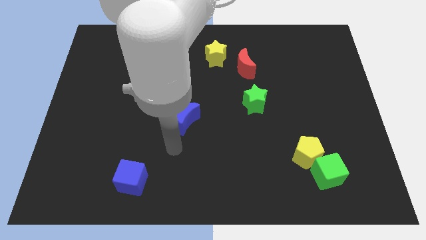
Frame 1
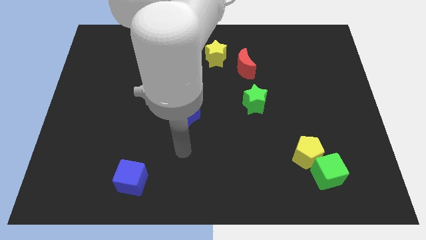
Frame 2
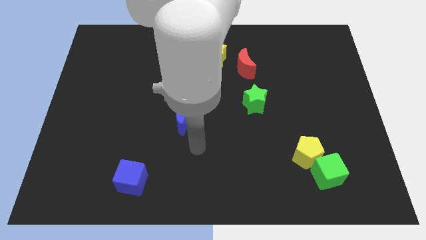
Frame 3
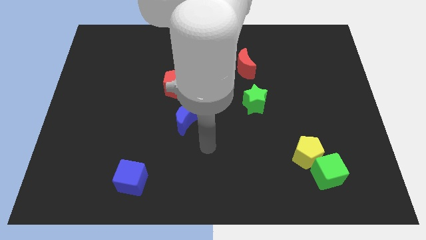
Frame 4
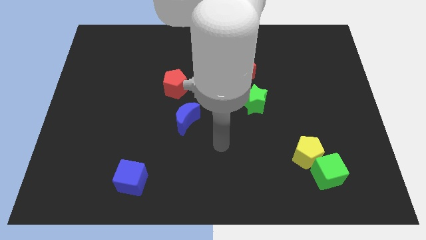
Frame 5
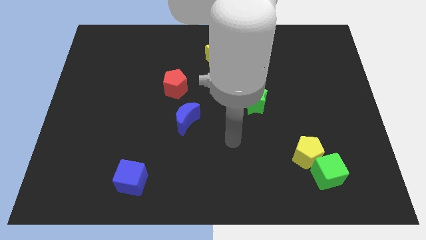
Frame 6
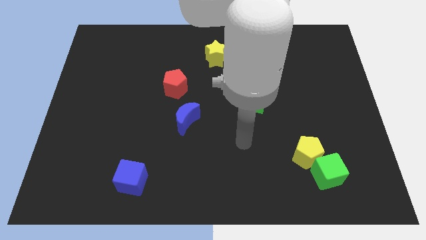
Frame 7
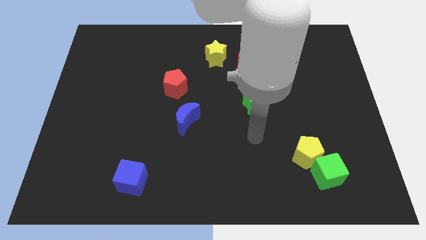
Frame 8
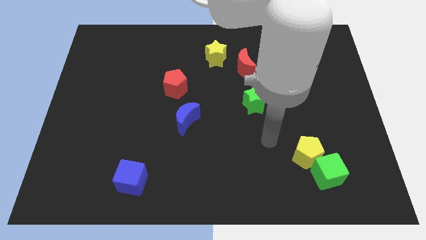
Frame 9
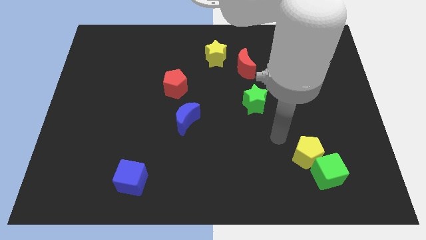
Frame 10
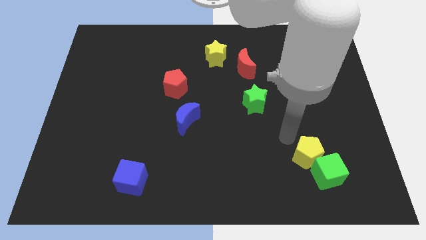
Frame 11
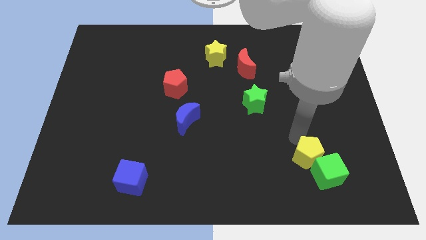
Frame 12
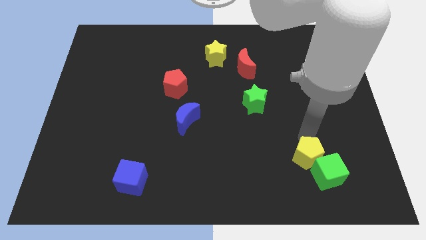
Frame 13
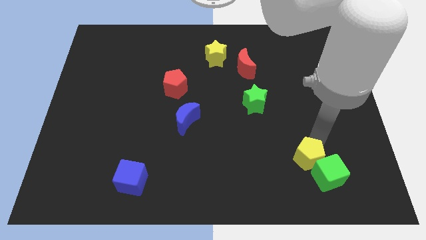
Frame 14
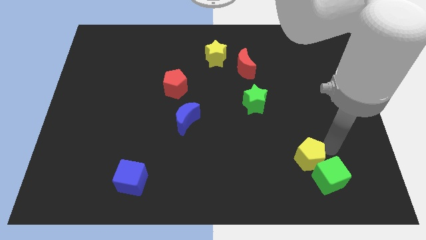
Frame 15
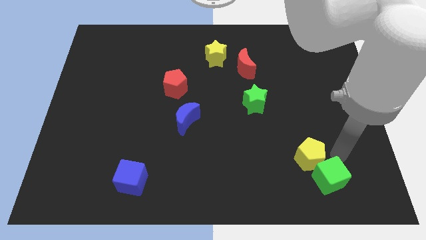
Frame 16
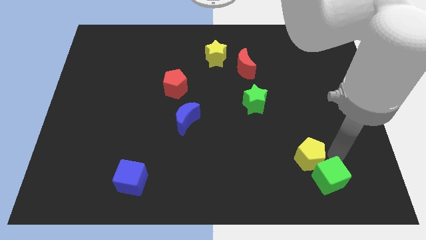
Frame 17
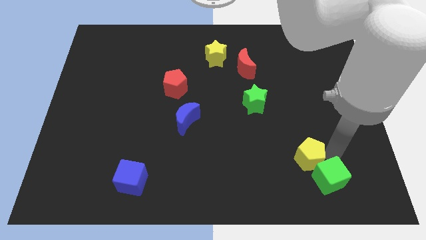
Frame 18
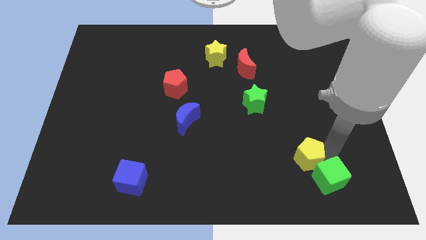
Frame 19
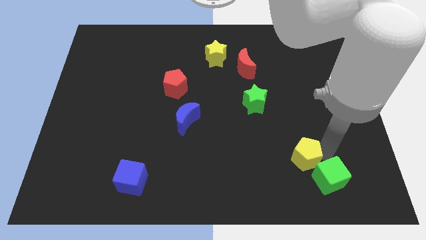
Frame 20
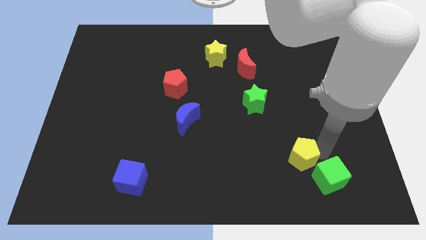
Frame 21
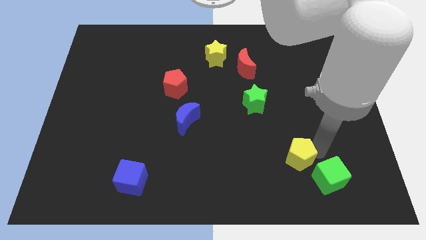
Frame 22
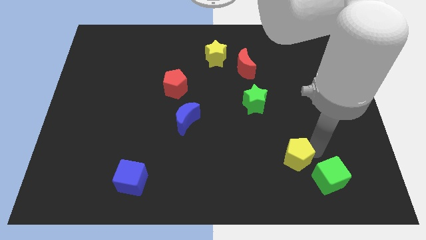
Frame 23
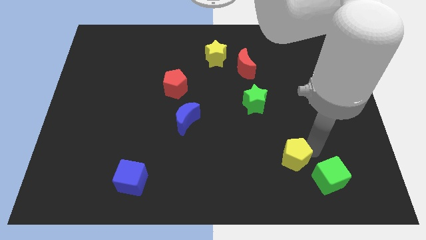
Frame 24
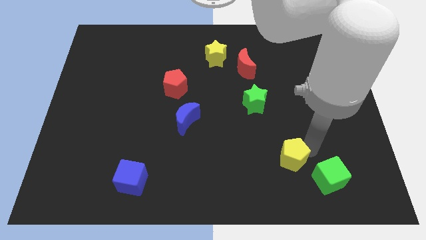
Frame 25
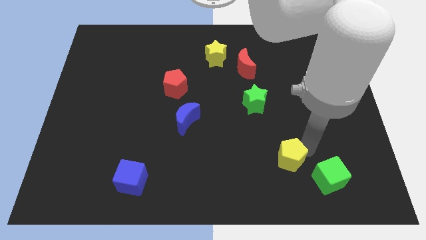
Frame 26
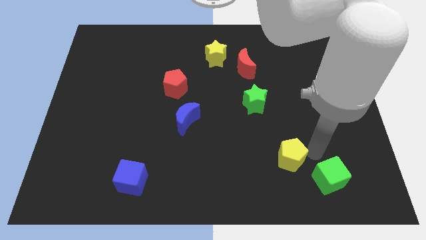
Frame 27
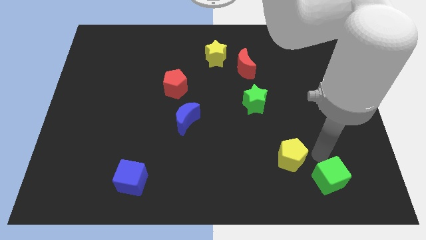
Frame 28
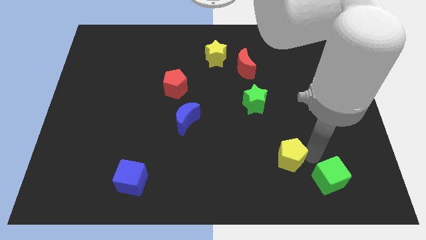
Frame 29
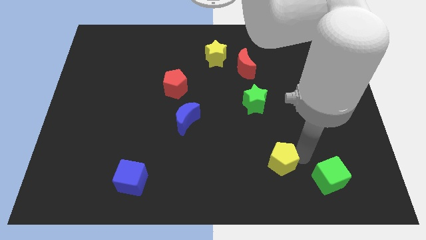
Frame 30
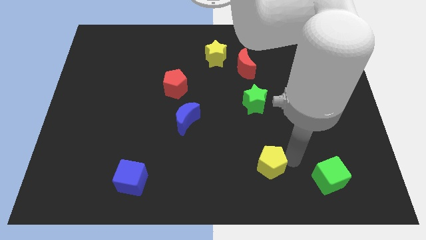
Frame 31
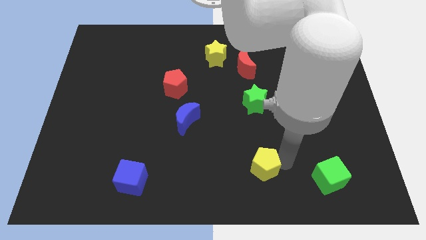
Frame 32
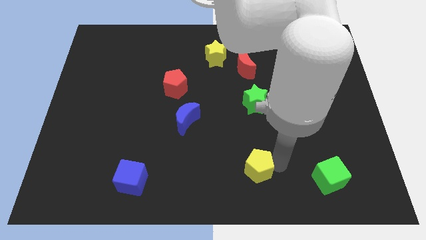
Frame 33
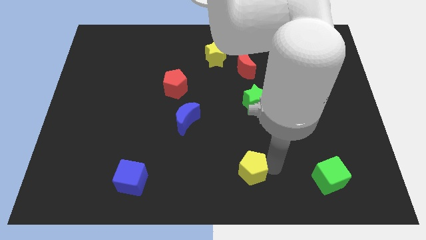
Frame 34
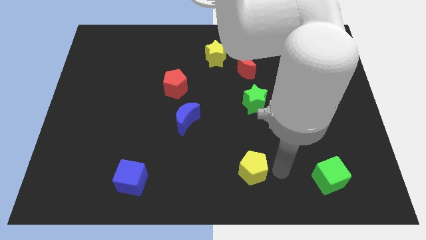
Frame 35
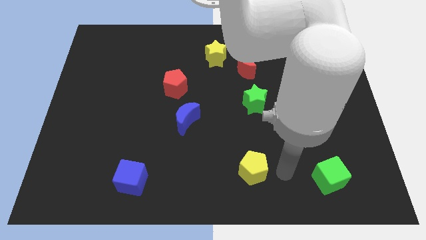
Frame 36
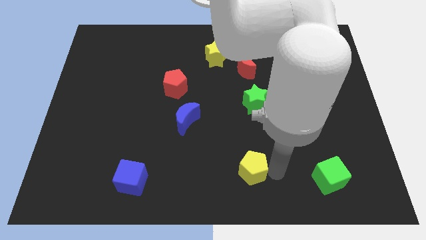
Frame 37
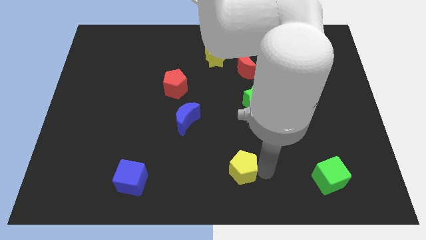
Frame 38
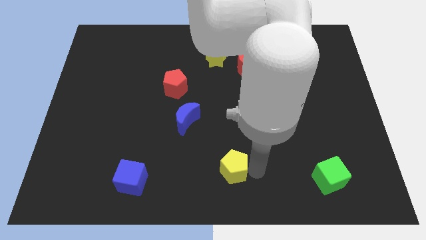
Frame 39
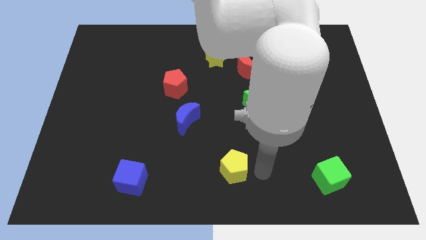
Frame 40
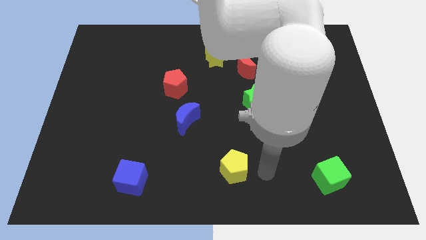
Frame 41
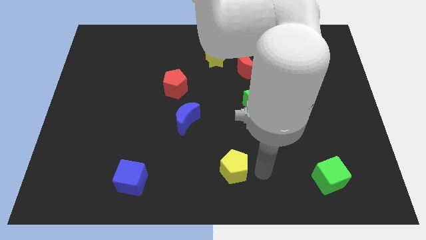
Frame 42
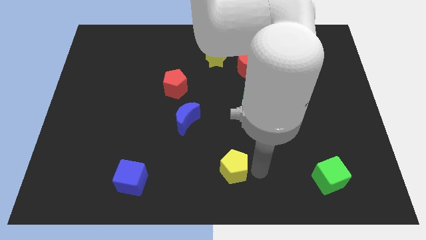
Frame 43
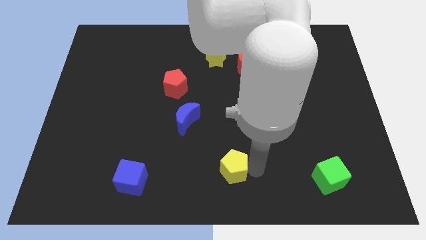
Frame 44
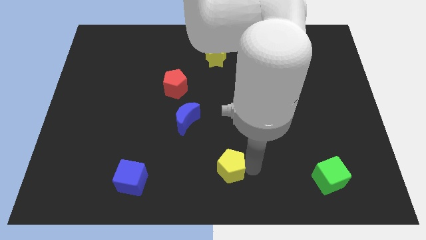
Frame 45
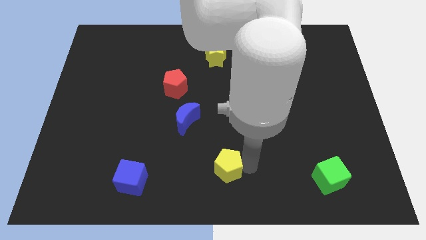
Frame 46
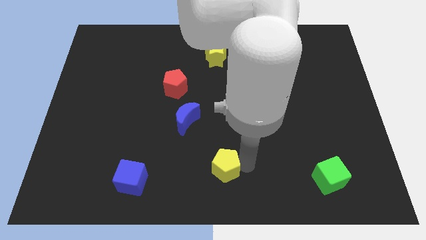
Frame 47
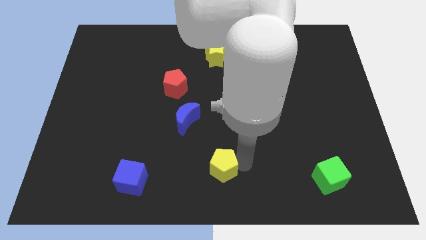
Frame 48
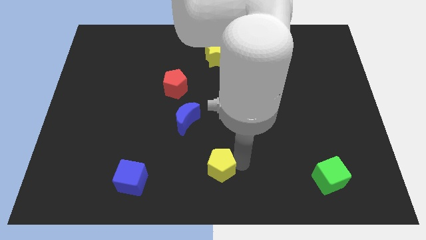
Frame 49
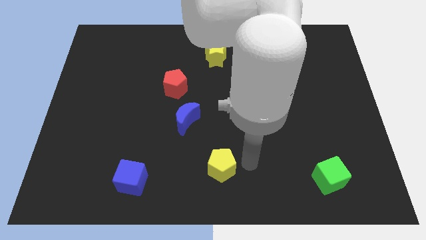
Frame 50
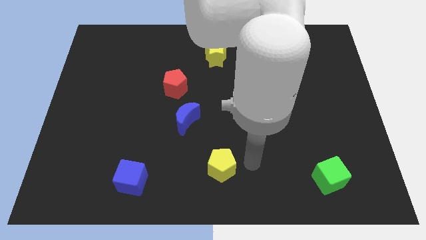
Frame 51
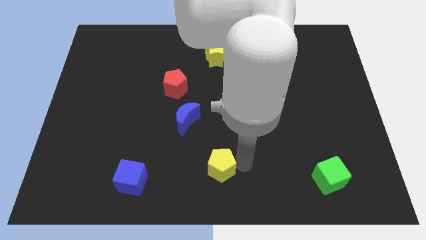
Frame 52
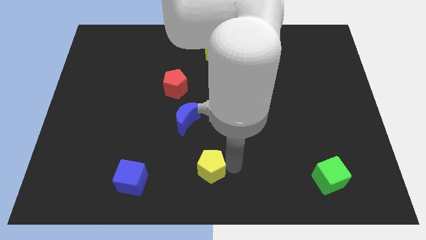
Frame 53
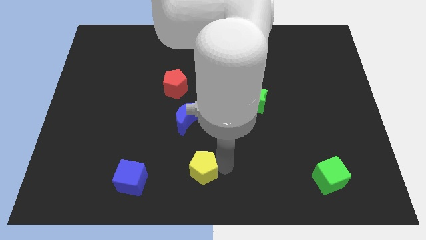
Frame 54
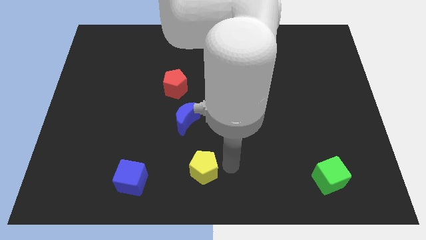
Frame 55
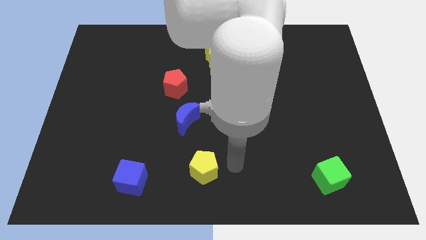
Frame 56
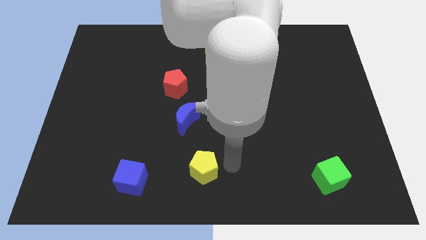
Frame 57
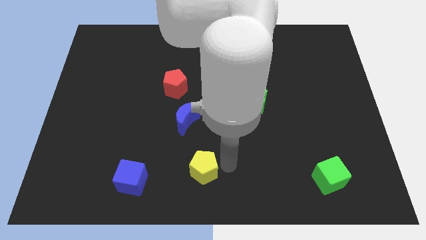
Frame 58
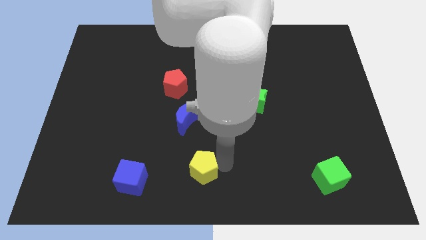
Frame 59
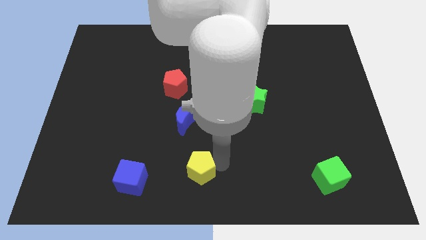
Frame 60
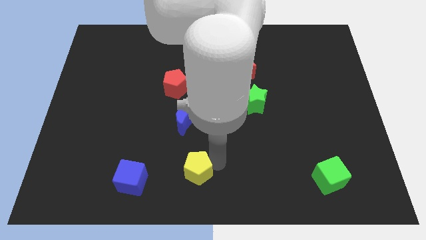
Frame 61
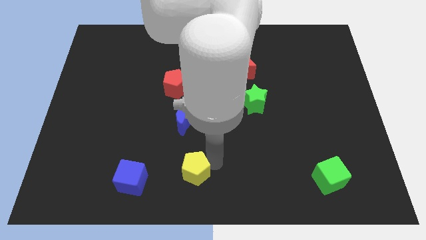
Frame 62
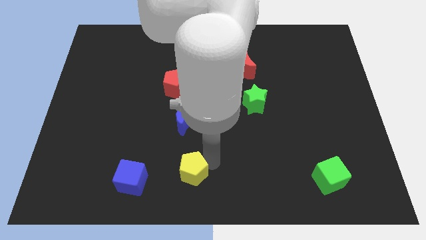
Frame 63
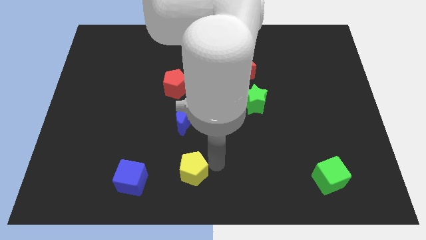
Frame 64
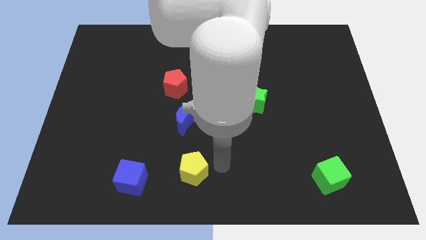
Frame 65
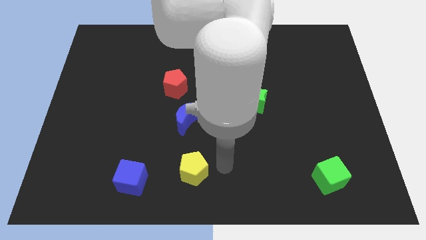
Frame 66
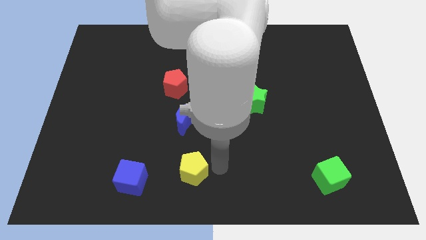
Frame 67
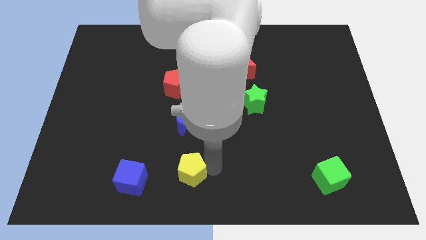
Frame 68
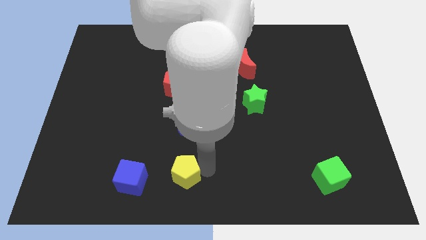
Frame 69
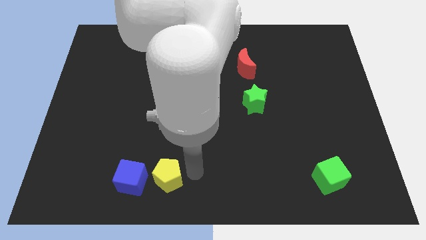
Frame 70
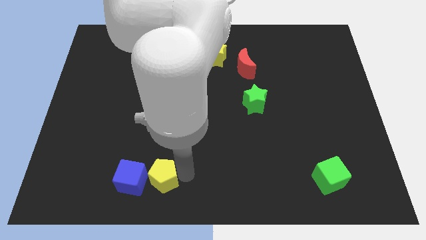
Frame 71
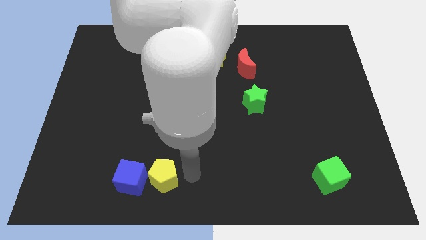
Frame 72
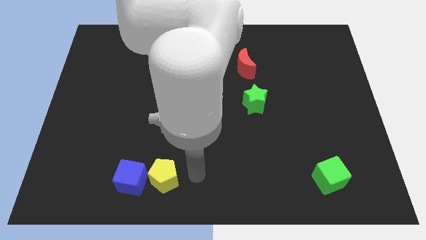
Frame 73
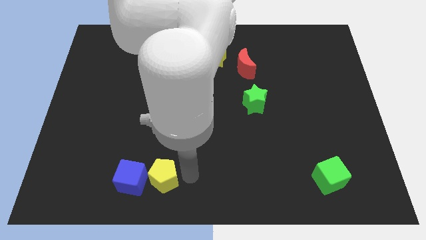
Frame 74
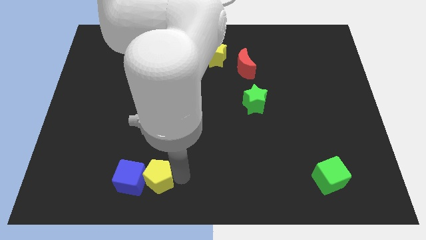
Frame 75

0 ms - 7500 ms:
push the yellow pentagon to the blue cube
